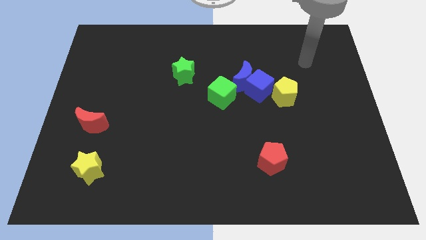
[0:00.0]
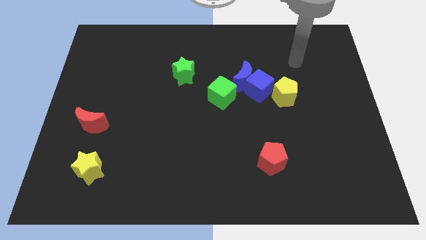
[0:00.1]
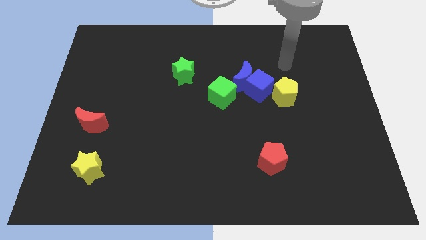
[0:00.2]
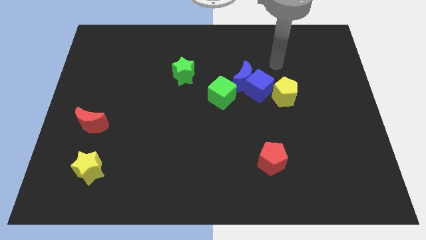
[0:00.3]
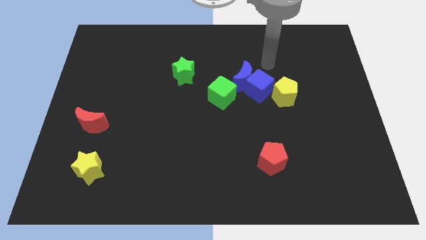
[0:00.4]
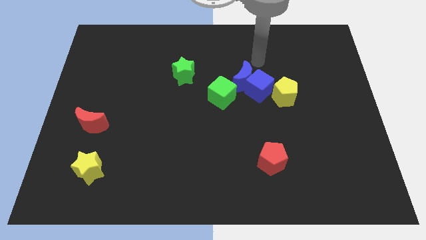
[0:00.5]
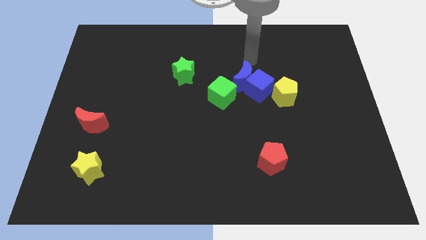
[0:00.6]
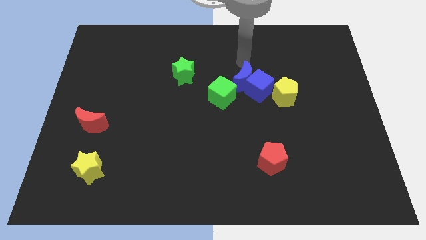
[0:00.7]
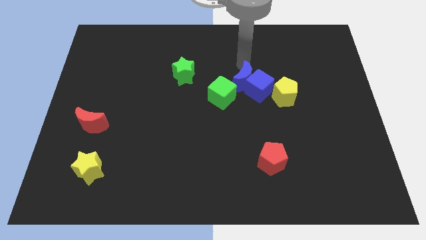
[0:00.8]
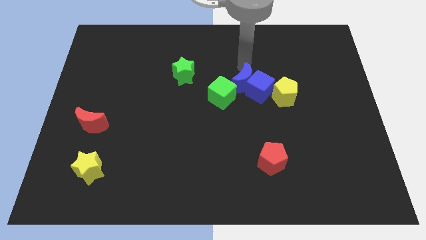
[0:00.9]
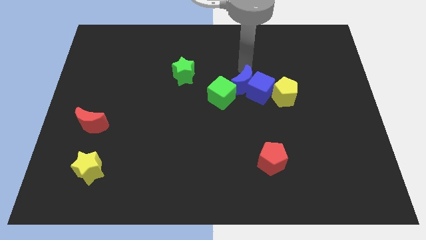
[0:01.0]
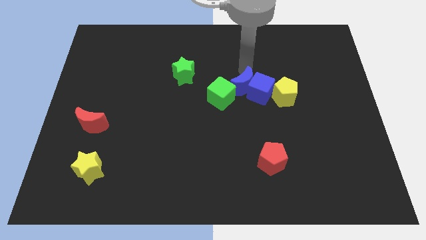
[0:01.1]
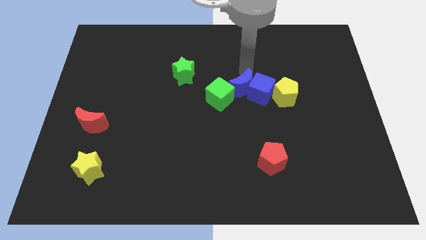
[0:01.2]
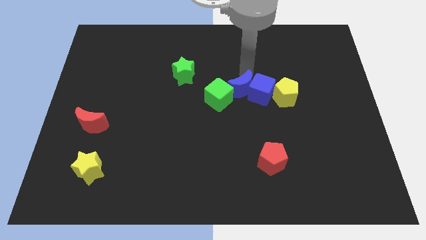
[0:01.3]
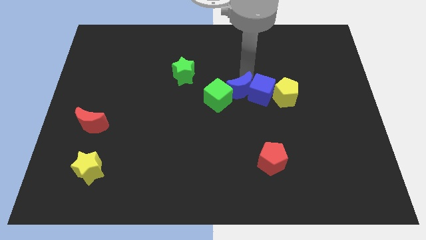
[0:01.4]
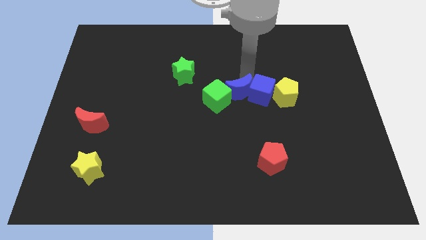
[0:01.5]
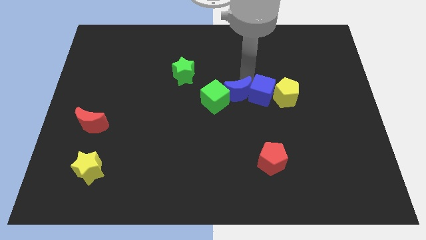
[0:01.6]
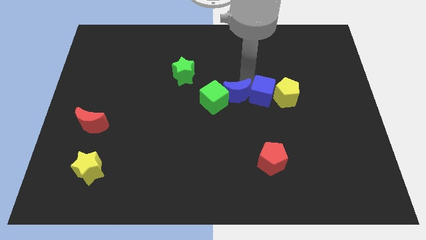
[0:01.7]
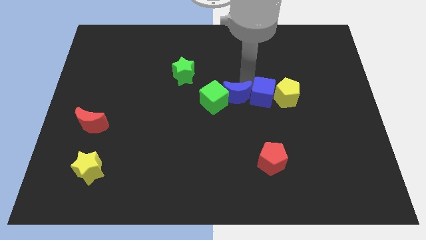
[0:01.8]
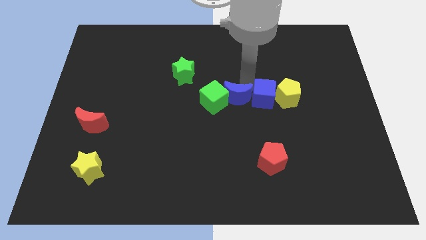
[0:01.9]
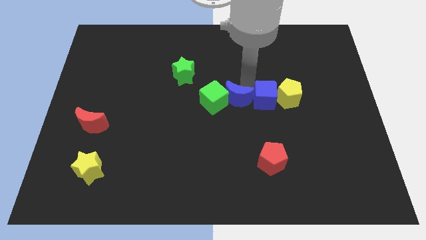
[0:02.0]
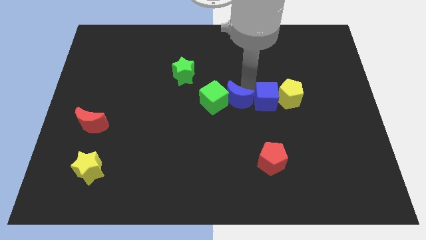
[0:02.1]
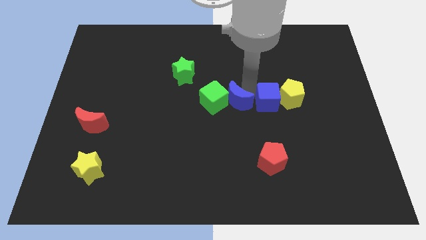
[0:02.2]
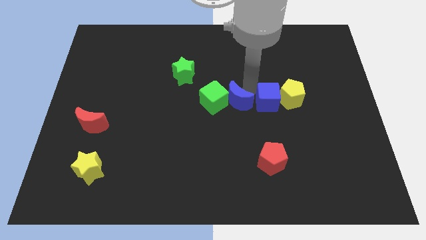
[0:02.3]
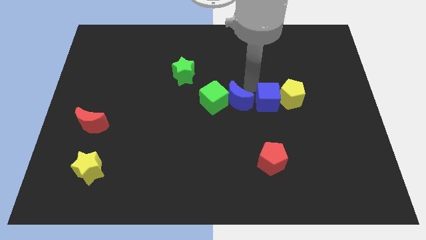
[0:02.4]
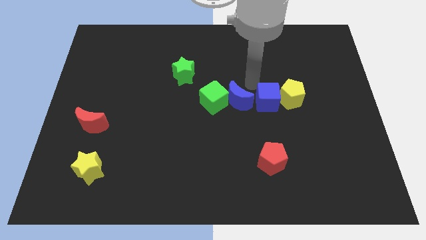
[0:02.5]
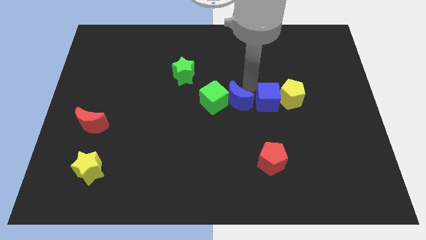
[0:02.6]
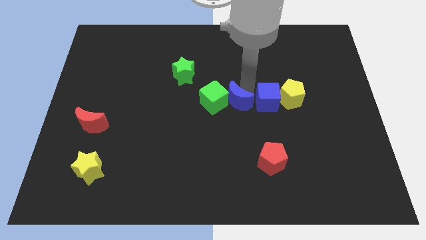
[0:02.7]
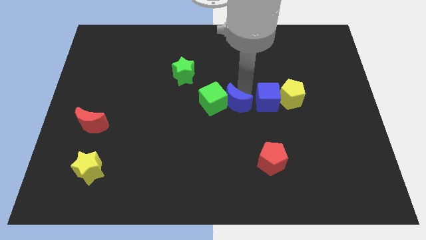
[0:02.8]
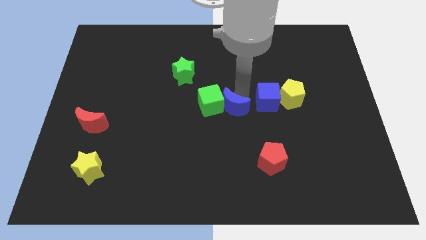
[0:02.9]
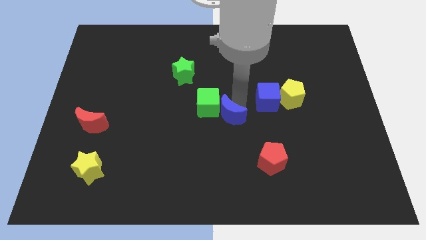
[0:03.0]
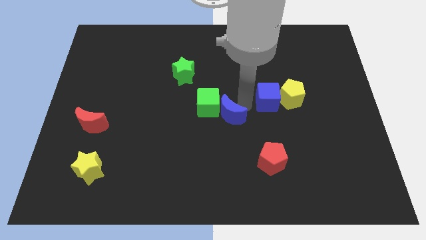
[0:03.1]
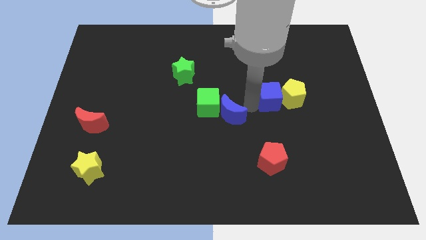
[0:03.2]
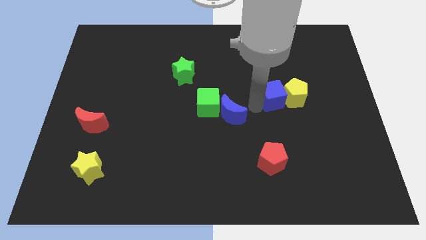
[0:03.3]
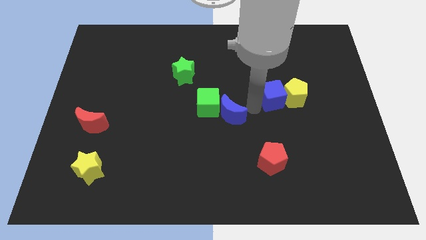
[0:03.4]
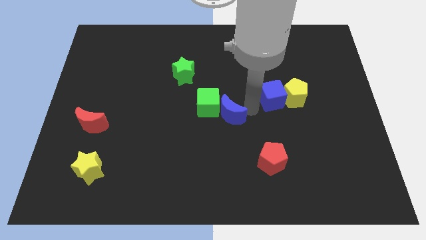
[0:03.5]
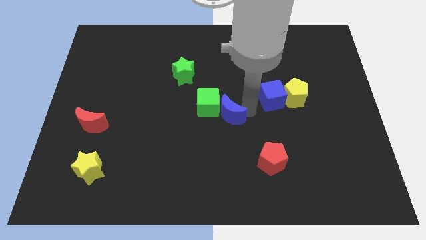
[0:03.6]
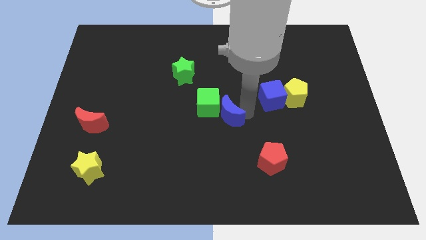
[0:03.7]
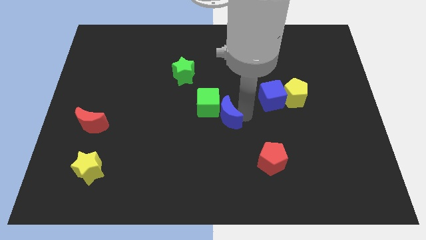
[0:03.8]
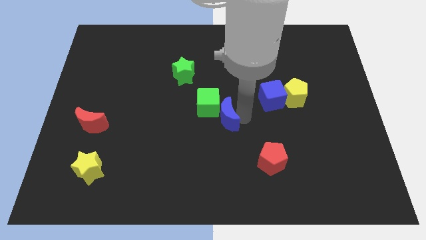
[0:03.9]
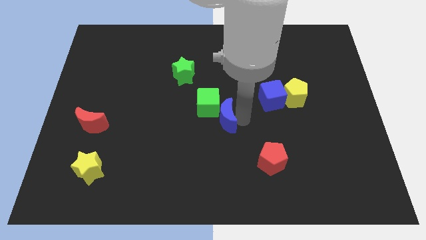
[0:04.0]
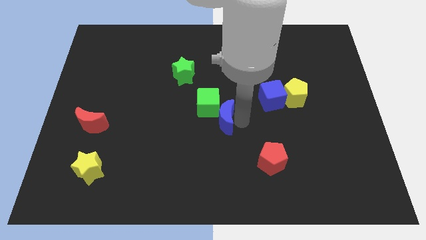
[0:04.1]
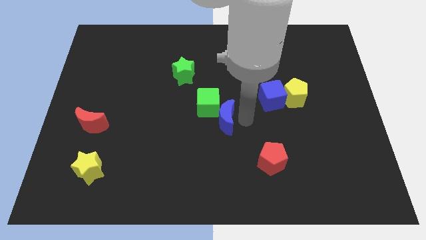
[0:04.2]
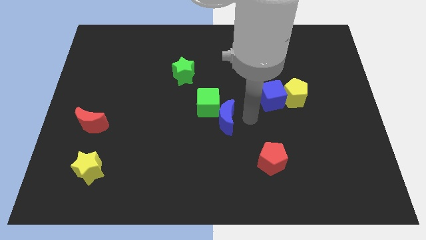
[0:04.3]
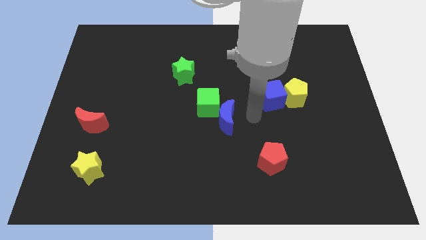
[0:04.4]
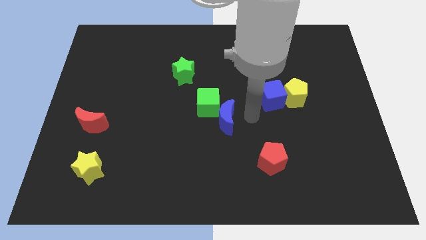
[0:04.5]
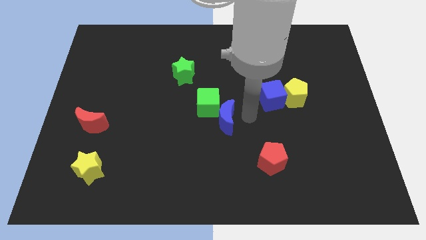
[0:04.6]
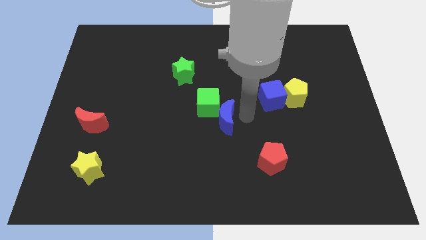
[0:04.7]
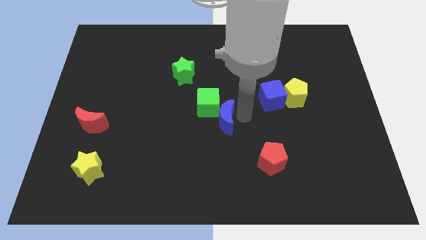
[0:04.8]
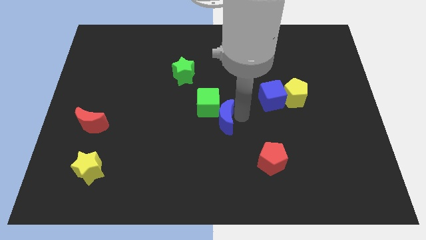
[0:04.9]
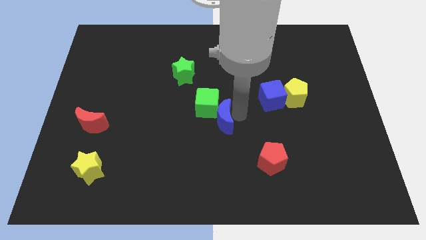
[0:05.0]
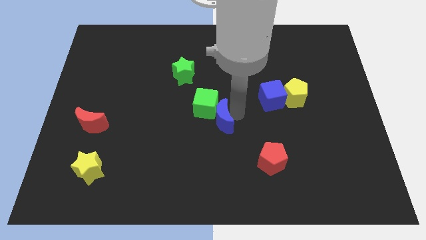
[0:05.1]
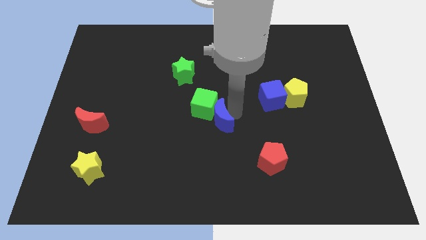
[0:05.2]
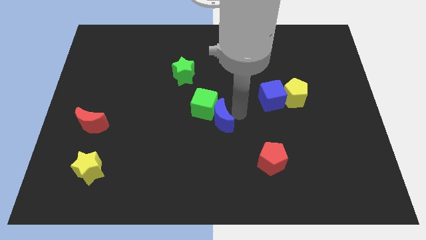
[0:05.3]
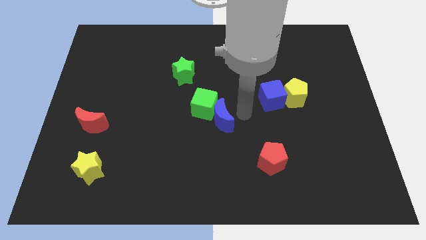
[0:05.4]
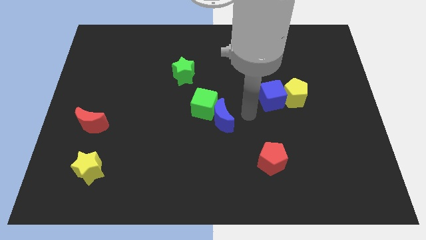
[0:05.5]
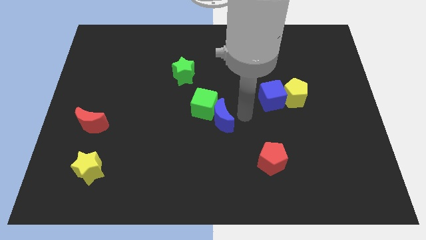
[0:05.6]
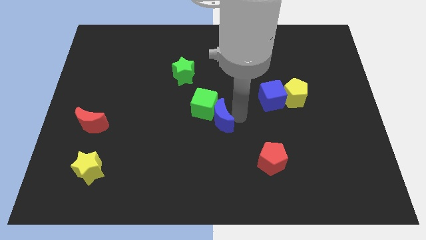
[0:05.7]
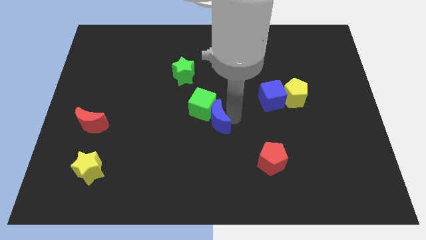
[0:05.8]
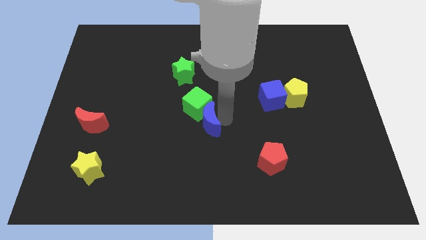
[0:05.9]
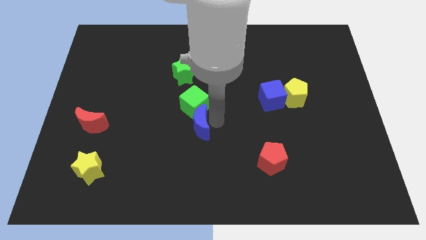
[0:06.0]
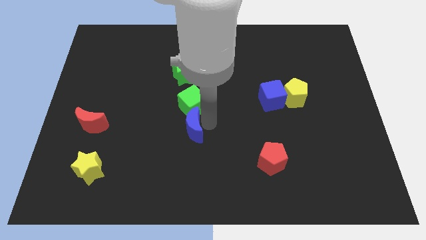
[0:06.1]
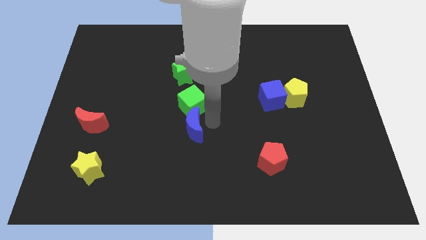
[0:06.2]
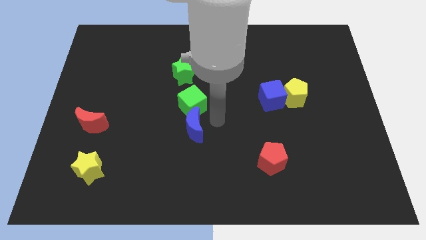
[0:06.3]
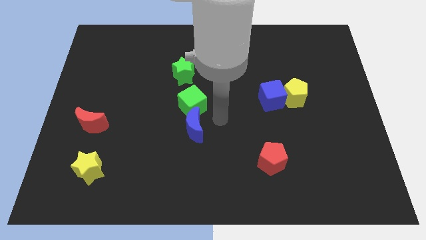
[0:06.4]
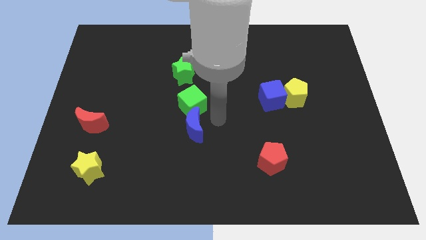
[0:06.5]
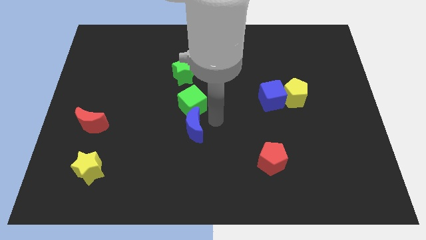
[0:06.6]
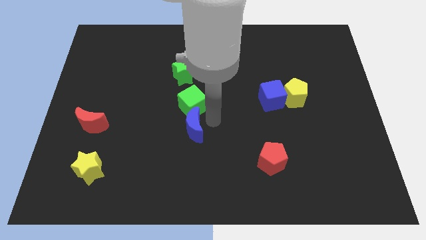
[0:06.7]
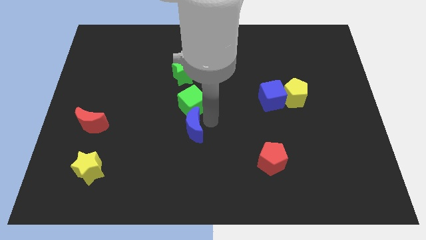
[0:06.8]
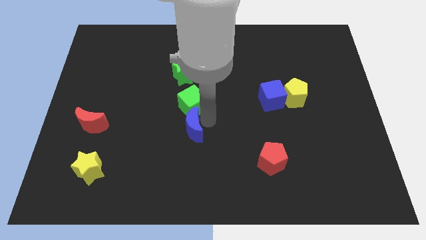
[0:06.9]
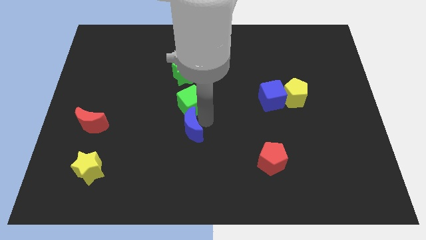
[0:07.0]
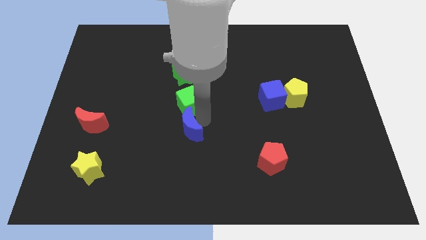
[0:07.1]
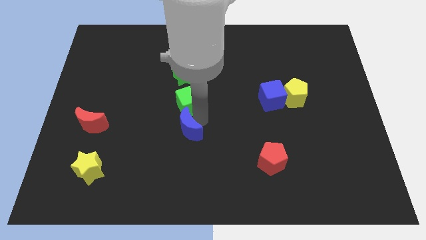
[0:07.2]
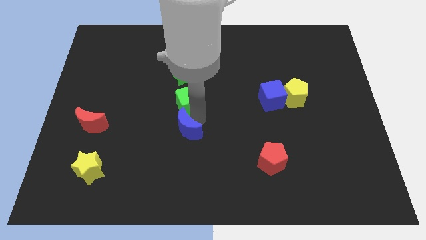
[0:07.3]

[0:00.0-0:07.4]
slide the blue moon diagonally down and to the left

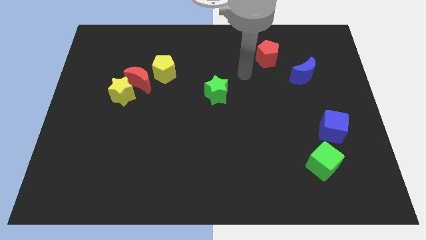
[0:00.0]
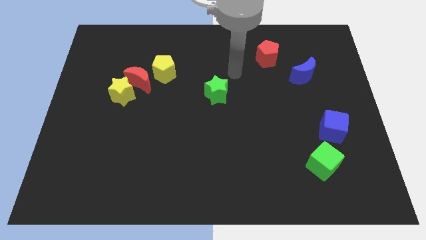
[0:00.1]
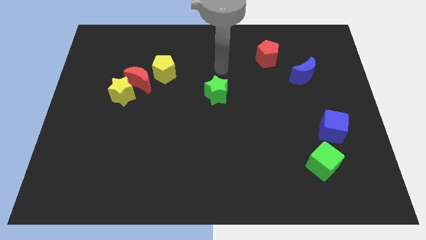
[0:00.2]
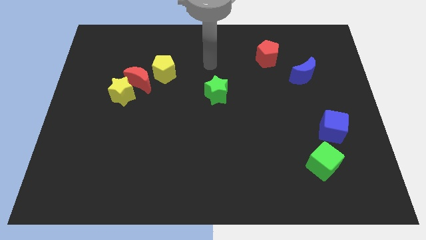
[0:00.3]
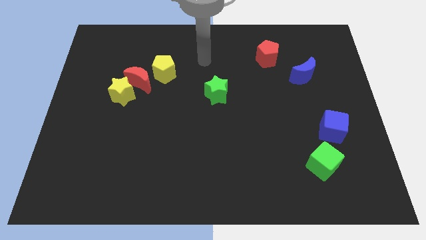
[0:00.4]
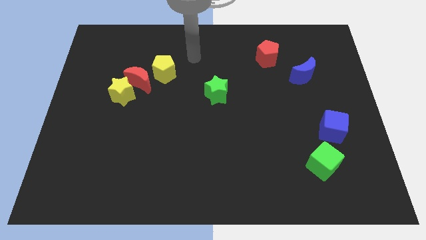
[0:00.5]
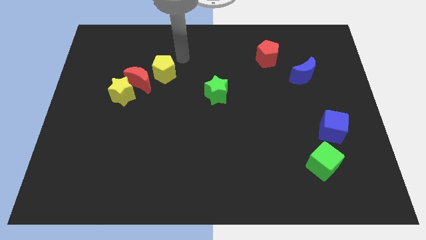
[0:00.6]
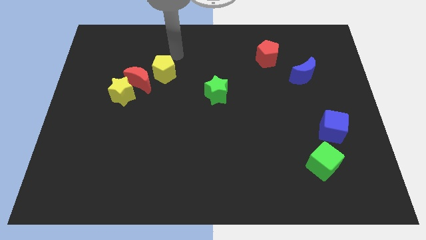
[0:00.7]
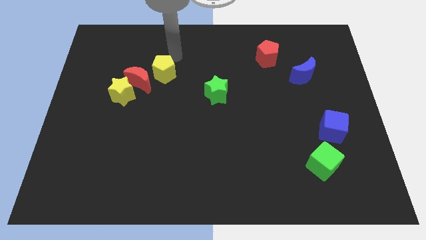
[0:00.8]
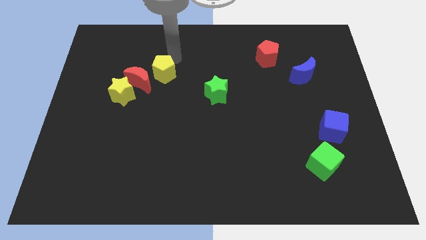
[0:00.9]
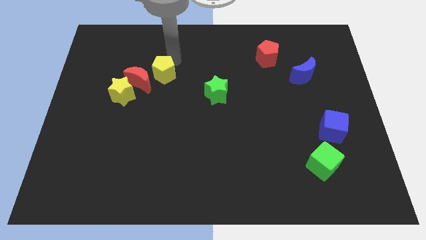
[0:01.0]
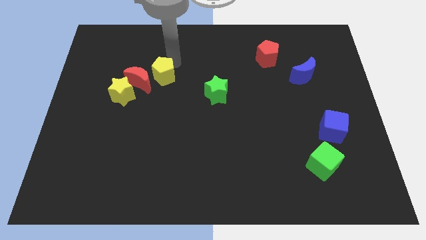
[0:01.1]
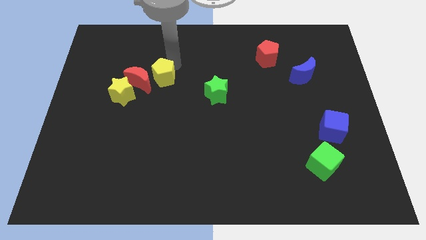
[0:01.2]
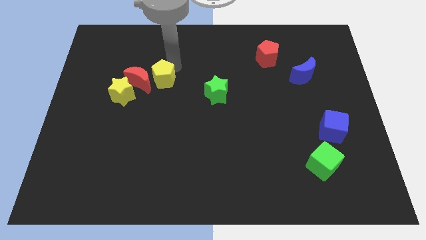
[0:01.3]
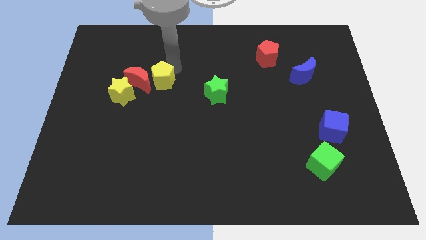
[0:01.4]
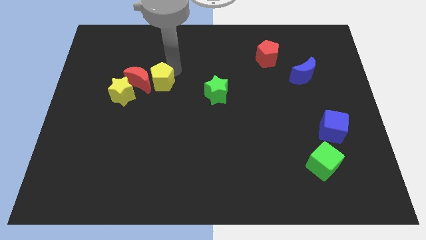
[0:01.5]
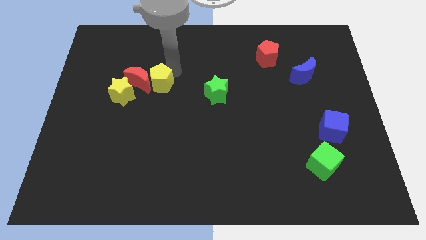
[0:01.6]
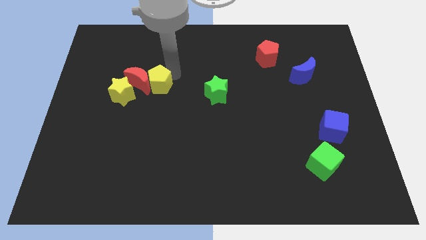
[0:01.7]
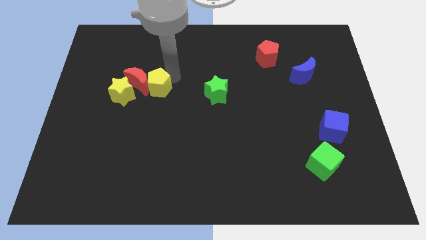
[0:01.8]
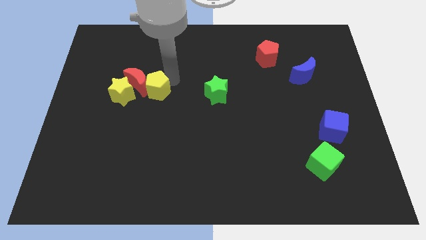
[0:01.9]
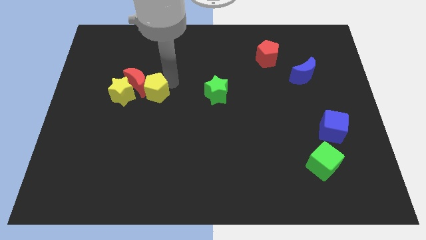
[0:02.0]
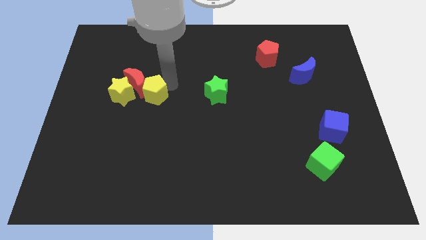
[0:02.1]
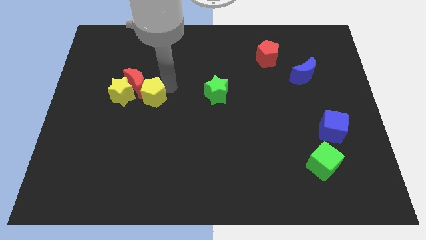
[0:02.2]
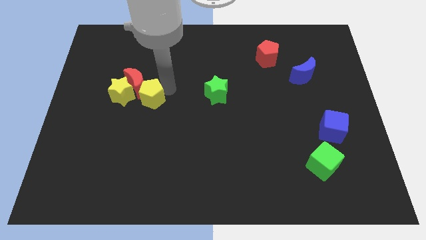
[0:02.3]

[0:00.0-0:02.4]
move the yellow pentagon down and left diagonally a little bit
